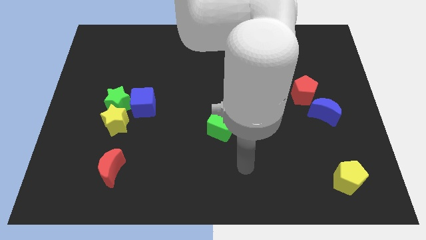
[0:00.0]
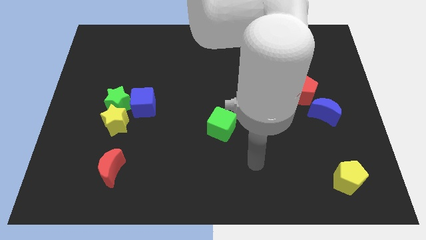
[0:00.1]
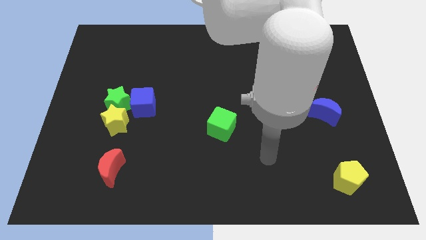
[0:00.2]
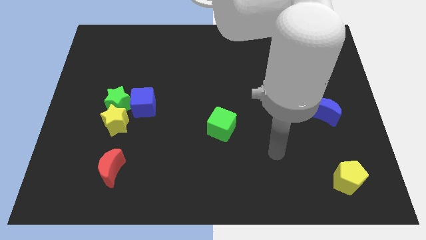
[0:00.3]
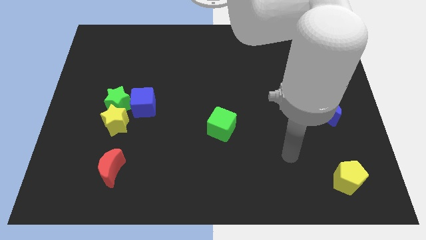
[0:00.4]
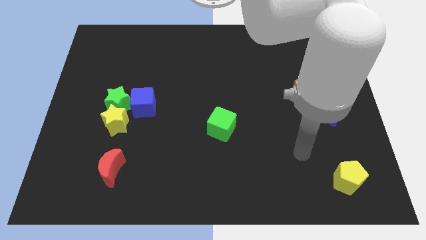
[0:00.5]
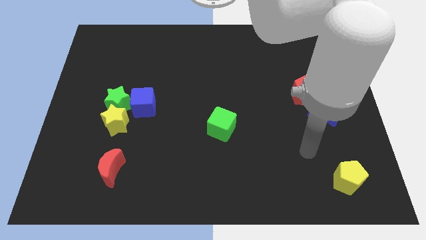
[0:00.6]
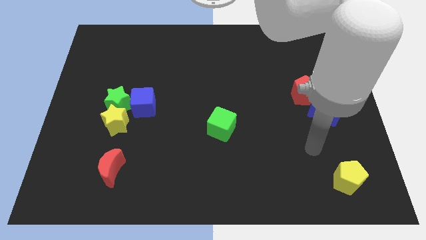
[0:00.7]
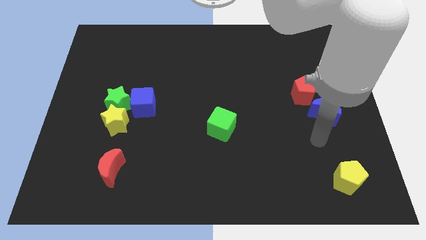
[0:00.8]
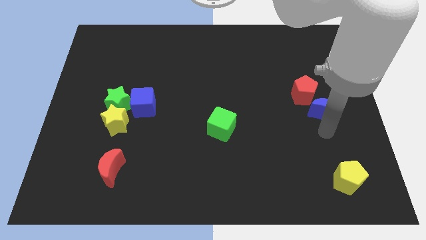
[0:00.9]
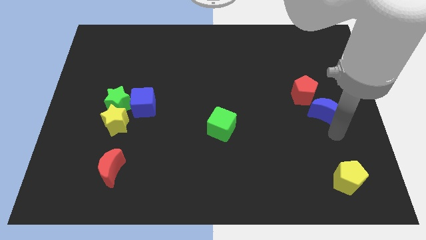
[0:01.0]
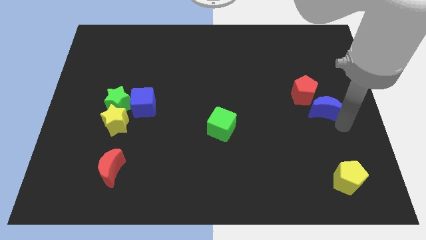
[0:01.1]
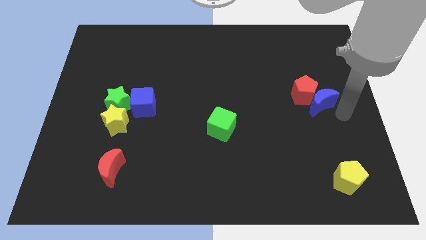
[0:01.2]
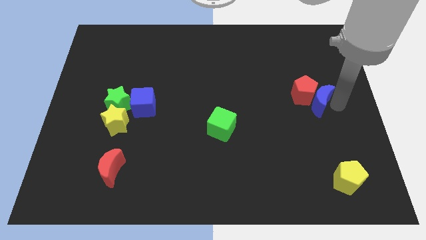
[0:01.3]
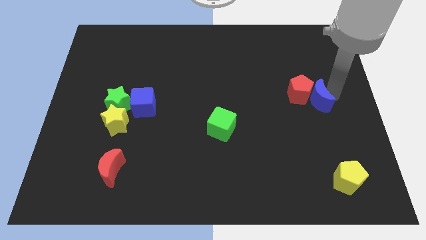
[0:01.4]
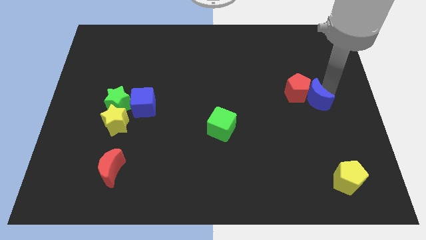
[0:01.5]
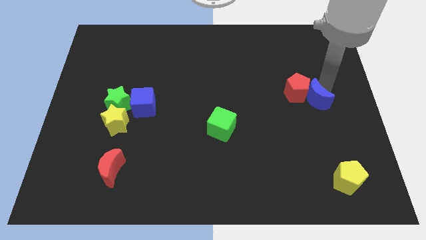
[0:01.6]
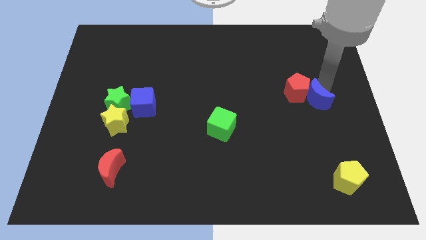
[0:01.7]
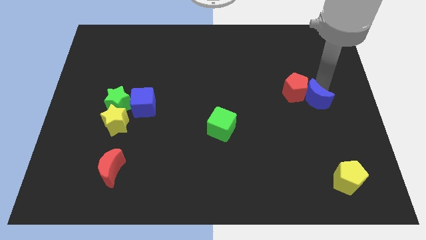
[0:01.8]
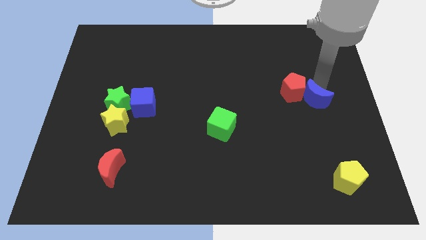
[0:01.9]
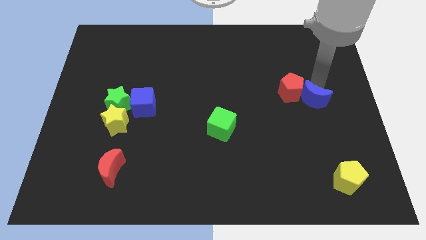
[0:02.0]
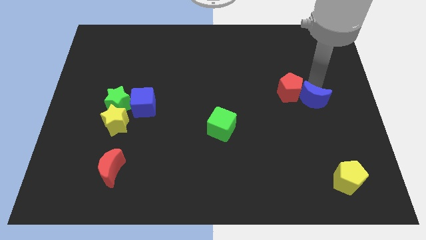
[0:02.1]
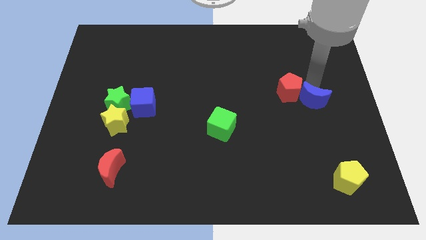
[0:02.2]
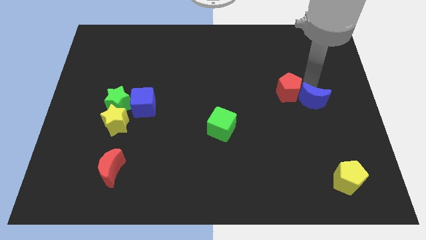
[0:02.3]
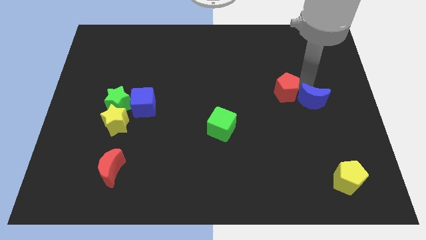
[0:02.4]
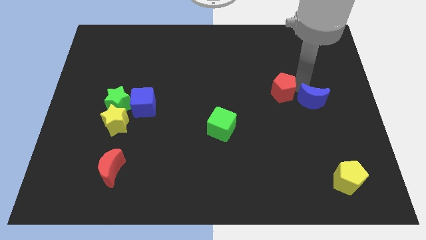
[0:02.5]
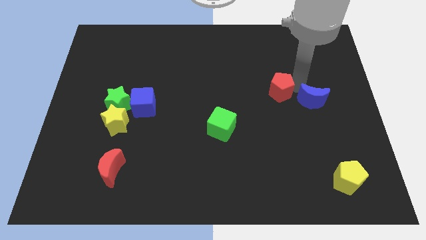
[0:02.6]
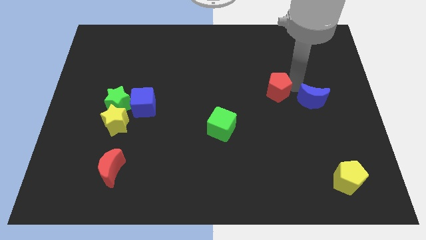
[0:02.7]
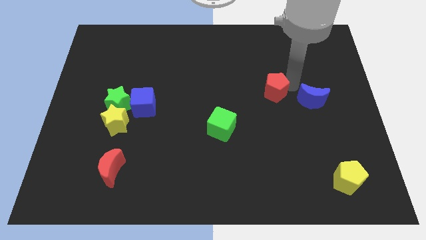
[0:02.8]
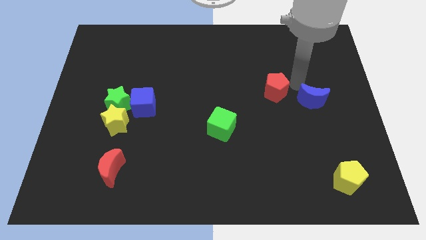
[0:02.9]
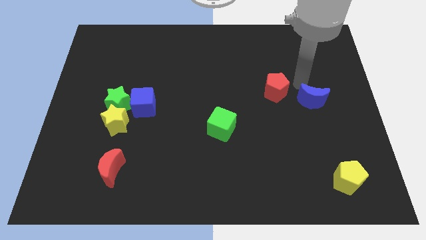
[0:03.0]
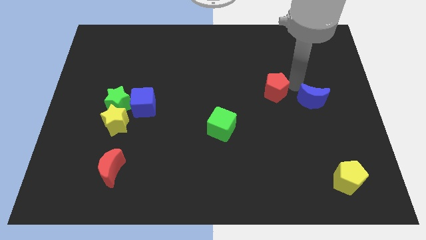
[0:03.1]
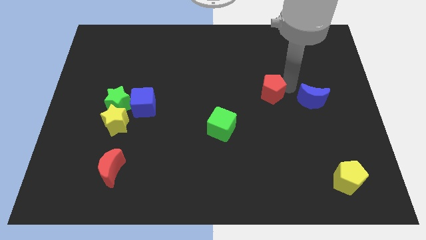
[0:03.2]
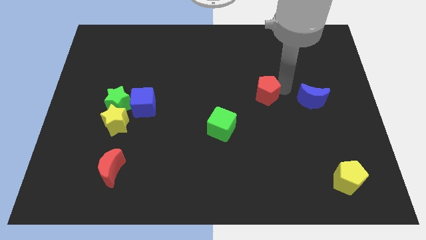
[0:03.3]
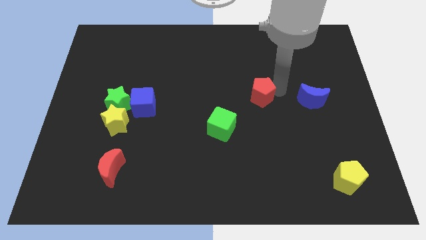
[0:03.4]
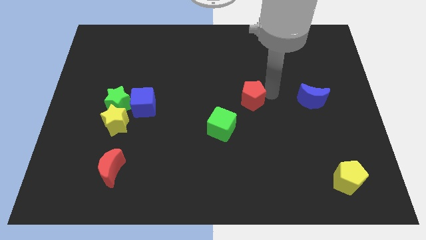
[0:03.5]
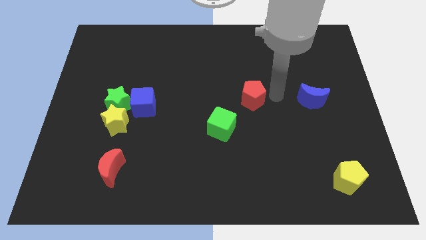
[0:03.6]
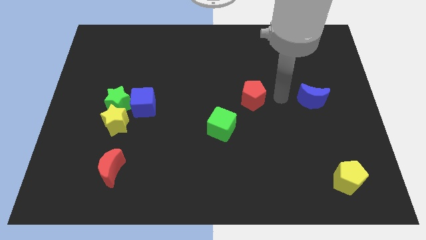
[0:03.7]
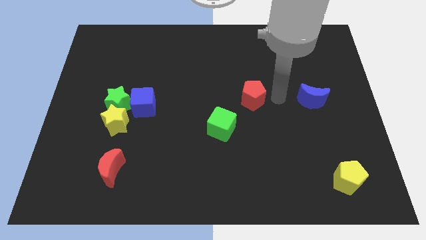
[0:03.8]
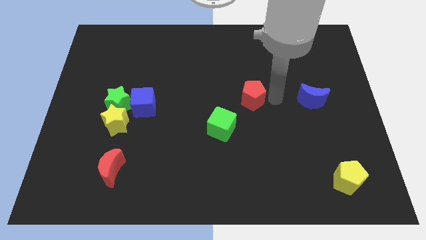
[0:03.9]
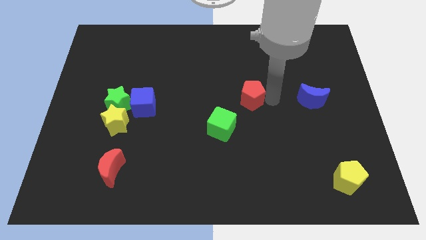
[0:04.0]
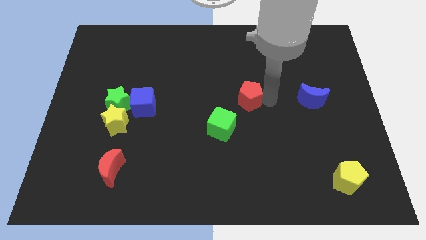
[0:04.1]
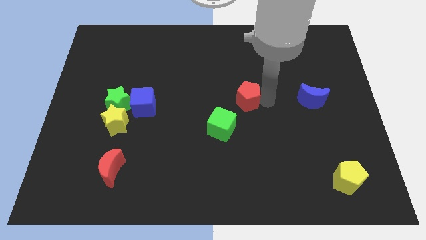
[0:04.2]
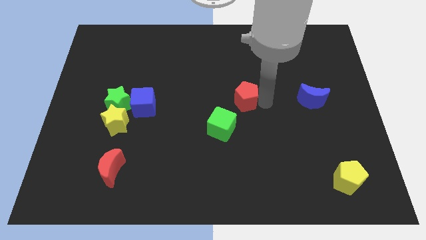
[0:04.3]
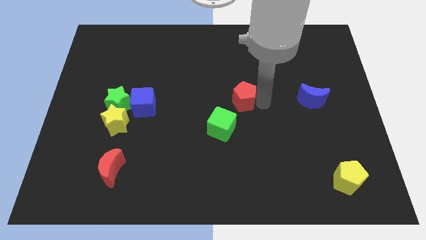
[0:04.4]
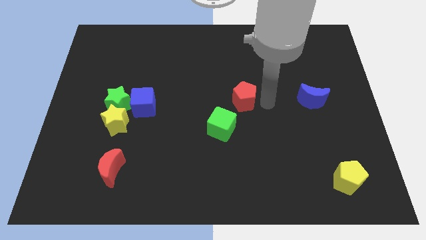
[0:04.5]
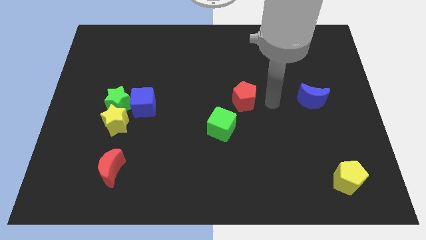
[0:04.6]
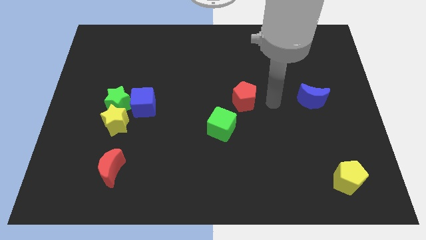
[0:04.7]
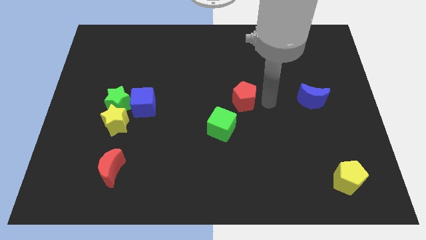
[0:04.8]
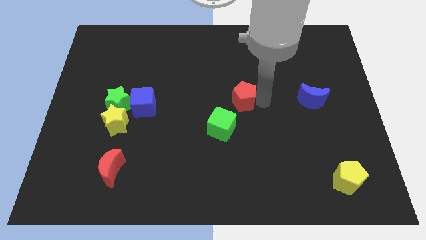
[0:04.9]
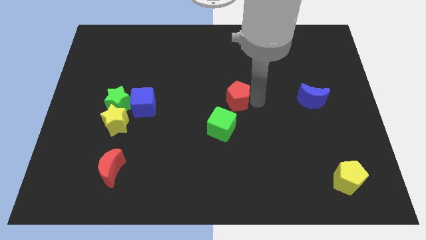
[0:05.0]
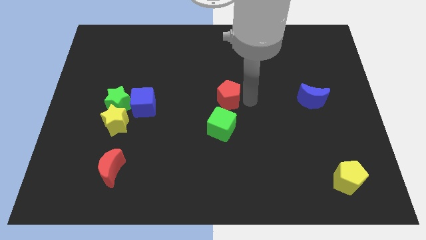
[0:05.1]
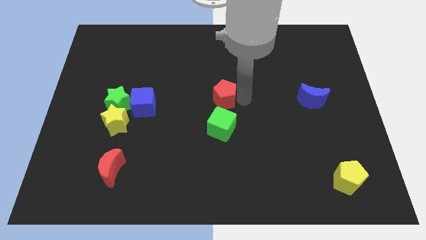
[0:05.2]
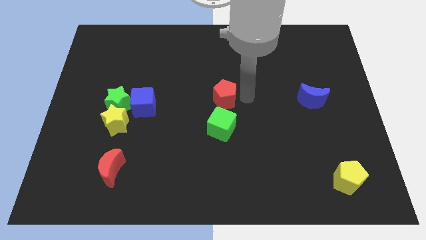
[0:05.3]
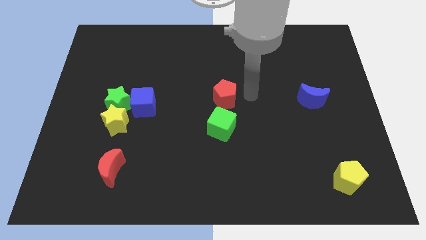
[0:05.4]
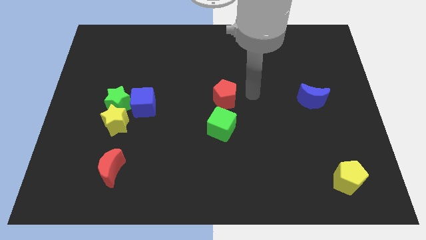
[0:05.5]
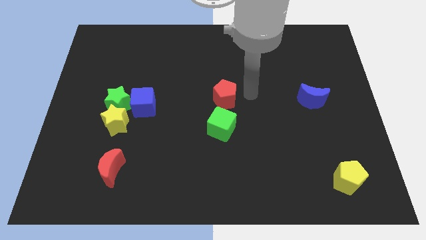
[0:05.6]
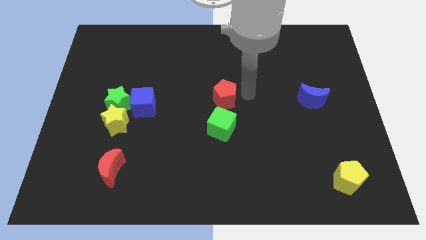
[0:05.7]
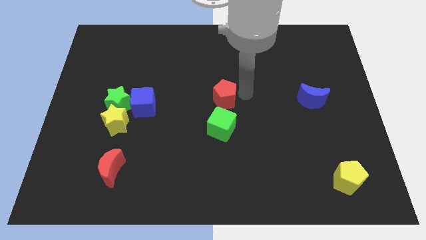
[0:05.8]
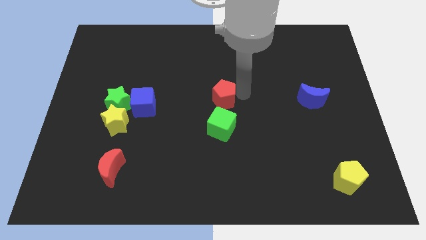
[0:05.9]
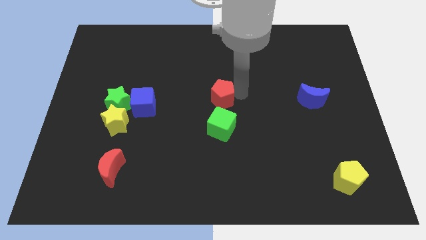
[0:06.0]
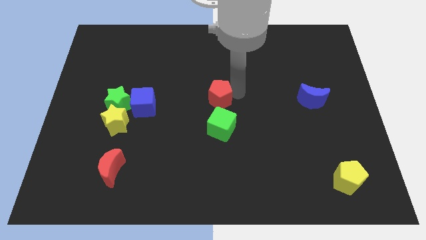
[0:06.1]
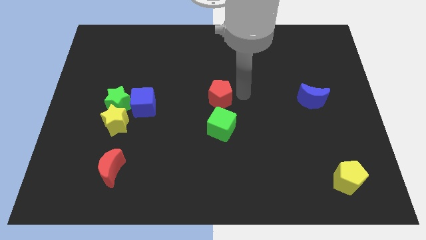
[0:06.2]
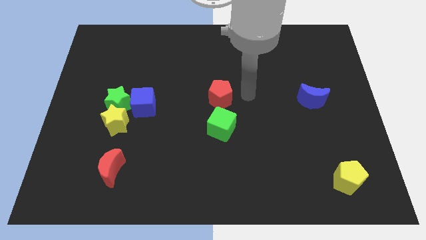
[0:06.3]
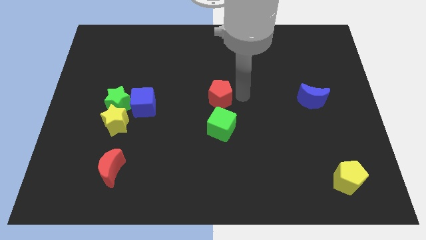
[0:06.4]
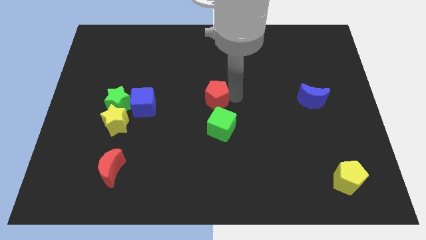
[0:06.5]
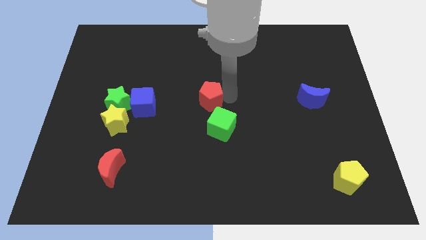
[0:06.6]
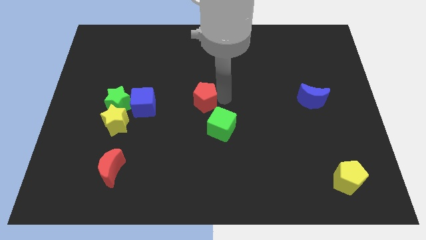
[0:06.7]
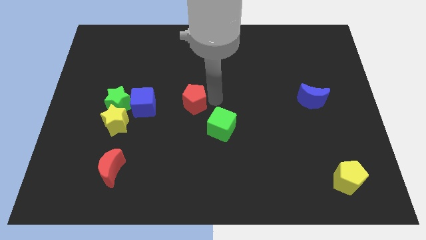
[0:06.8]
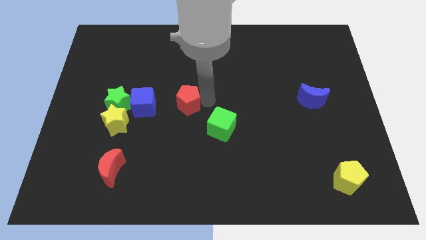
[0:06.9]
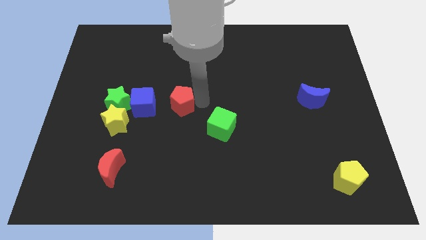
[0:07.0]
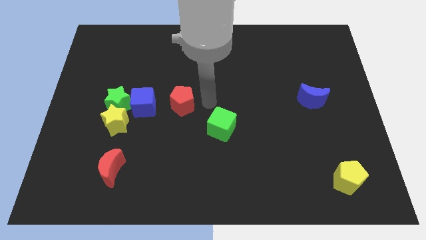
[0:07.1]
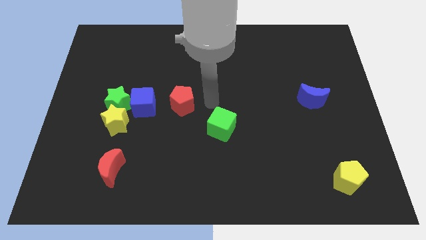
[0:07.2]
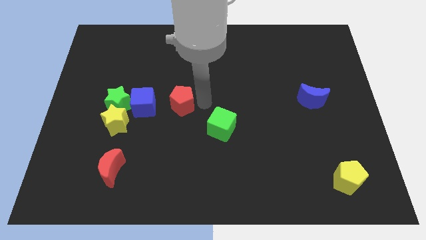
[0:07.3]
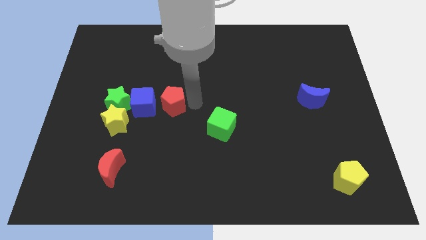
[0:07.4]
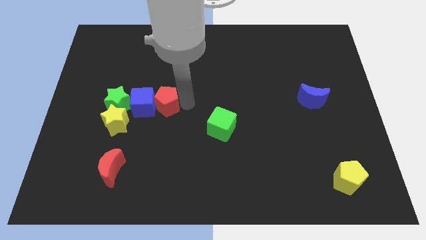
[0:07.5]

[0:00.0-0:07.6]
move the red pentagon to the blue cube
